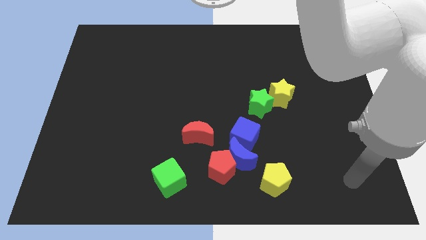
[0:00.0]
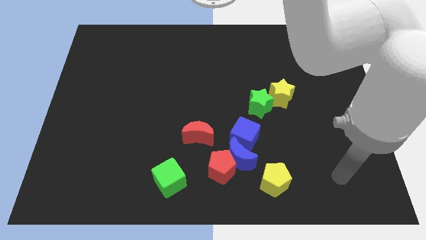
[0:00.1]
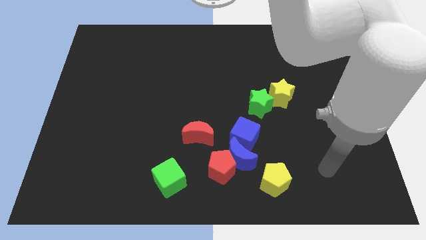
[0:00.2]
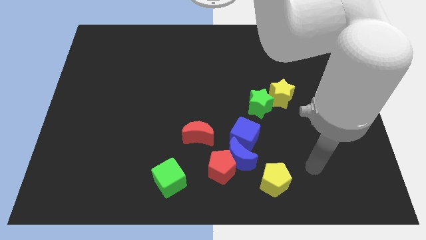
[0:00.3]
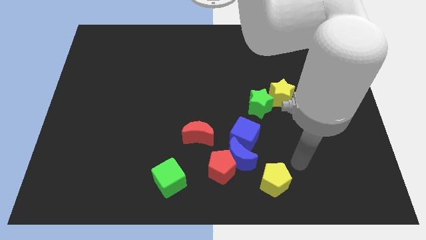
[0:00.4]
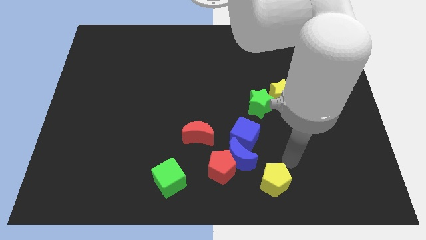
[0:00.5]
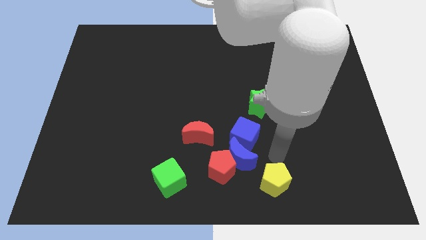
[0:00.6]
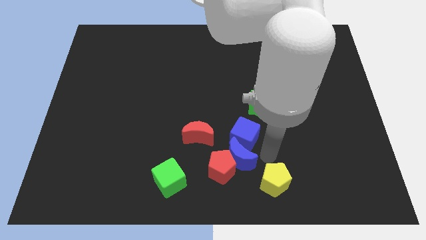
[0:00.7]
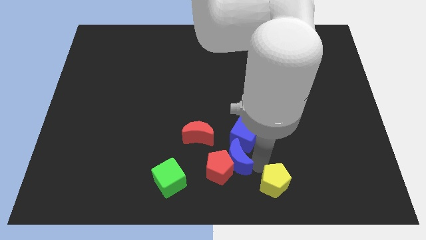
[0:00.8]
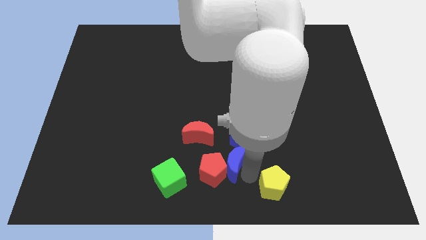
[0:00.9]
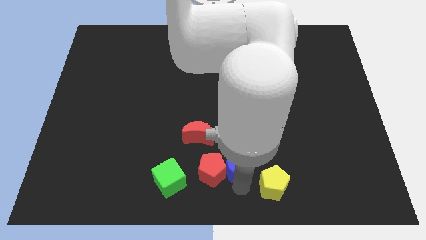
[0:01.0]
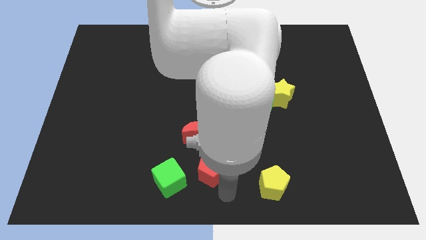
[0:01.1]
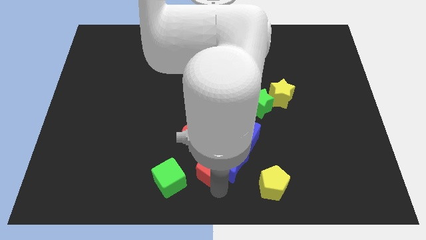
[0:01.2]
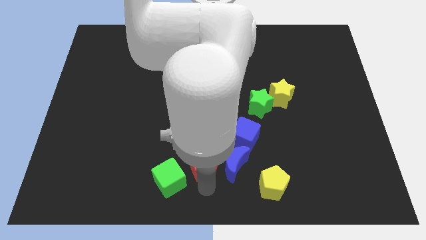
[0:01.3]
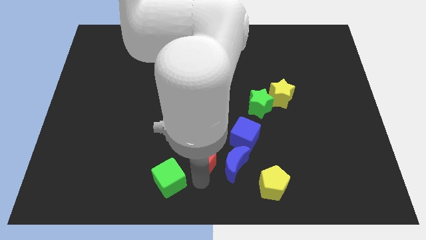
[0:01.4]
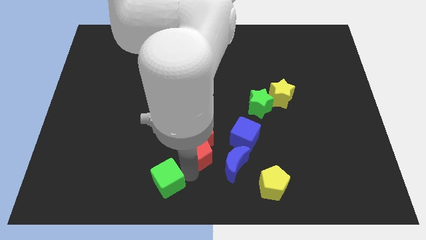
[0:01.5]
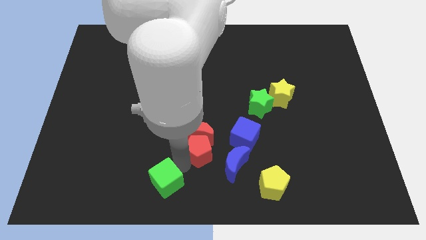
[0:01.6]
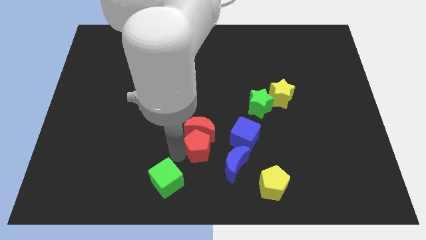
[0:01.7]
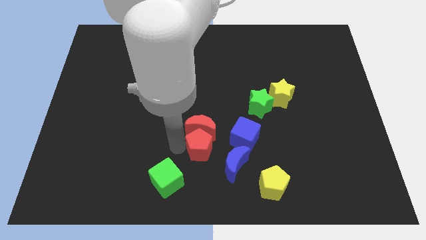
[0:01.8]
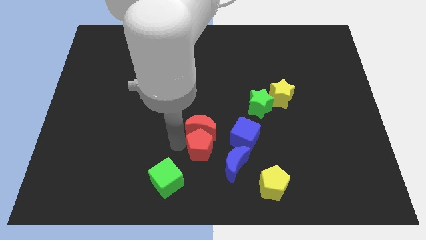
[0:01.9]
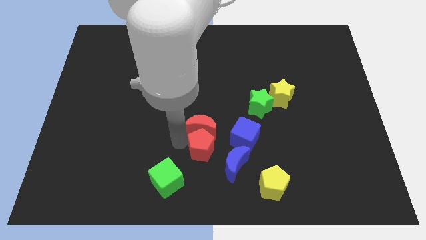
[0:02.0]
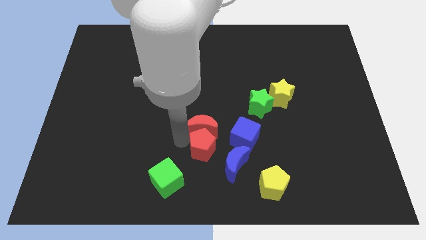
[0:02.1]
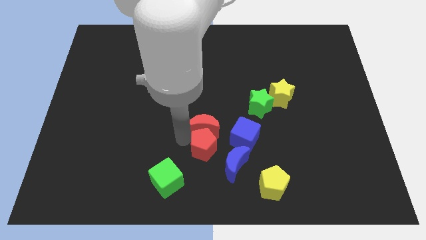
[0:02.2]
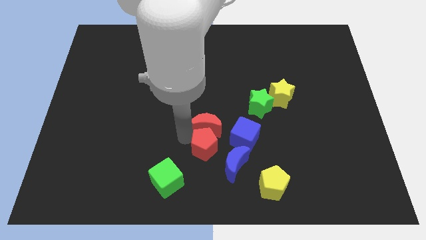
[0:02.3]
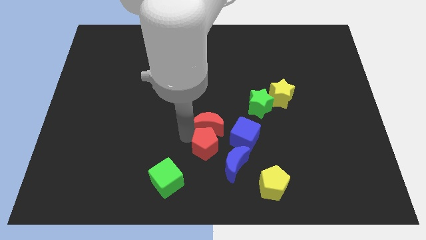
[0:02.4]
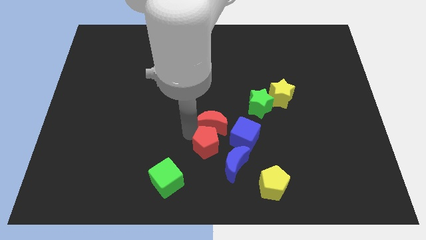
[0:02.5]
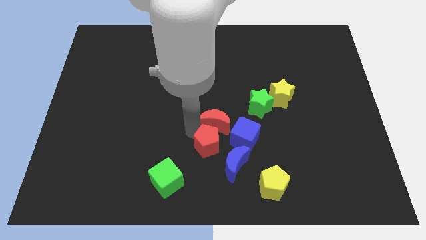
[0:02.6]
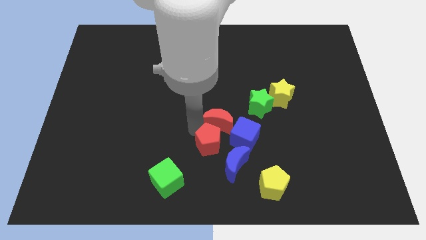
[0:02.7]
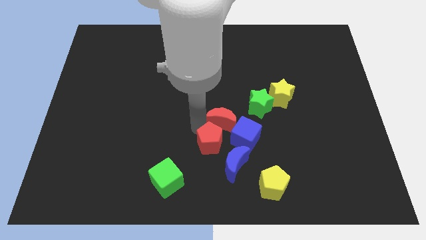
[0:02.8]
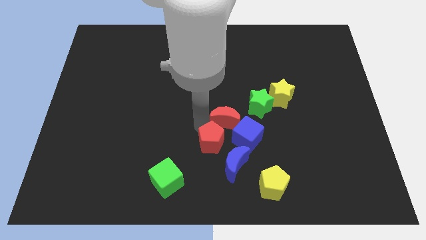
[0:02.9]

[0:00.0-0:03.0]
move the red moon up and to the right diagonally a bit

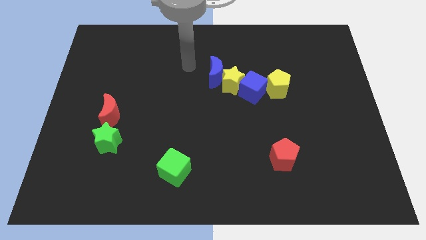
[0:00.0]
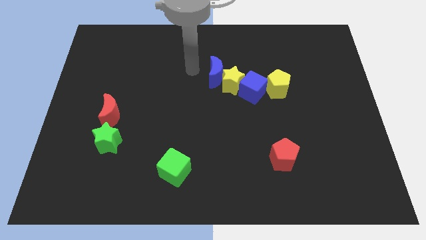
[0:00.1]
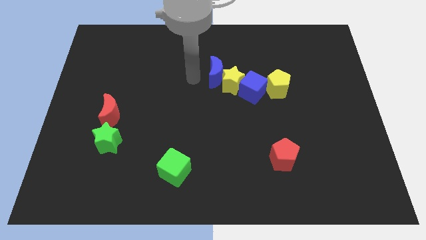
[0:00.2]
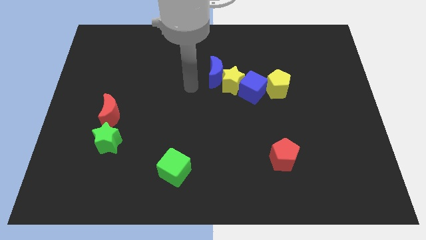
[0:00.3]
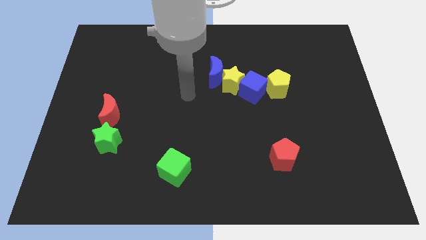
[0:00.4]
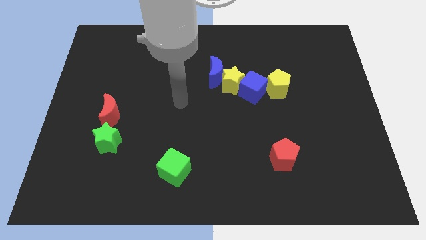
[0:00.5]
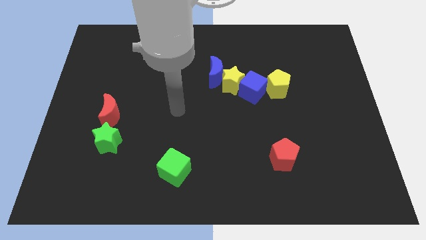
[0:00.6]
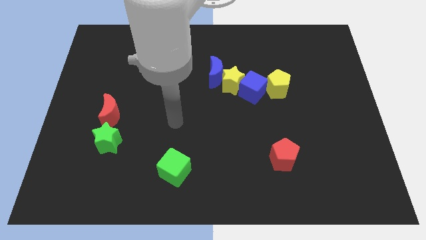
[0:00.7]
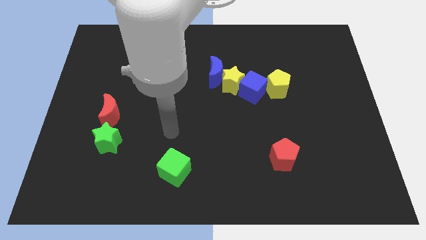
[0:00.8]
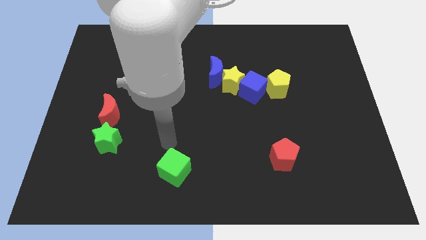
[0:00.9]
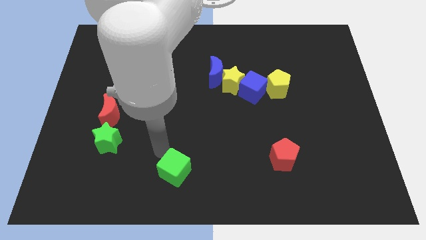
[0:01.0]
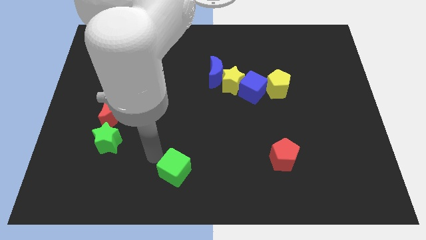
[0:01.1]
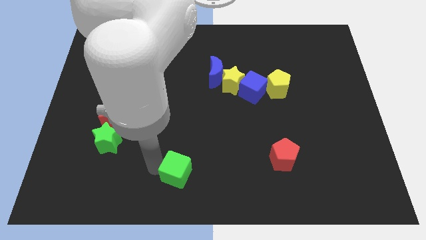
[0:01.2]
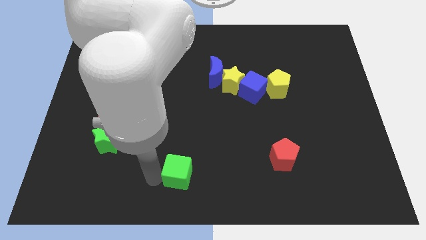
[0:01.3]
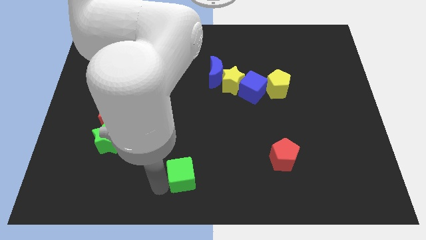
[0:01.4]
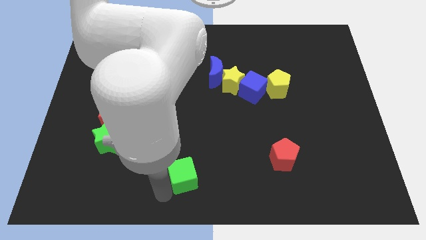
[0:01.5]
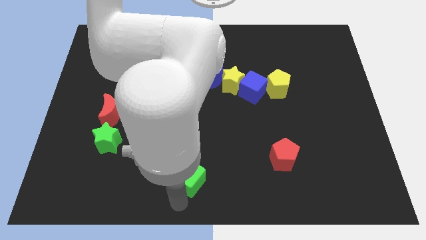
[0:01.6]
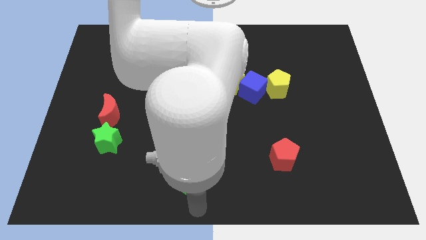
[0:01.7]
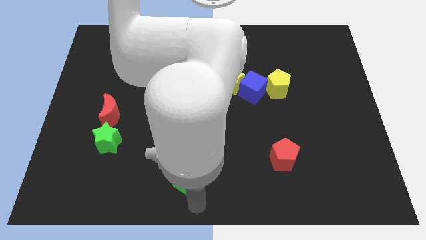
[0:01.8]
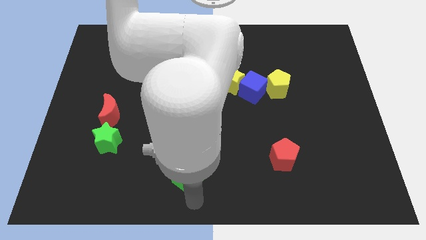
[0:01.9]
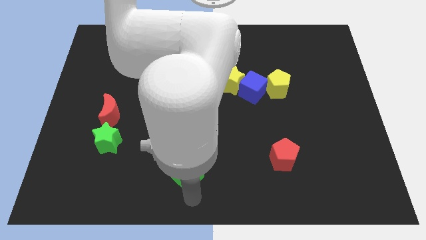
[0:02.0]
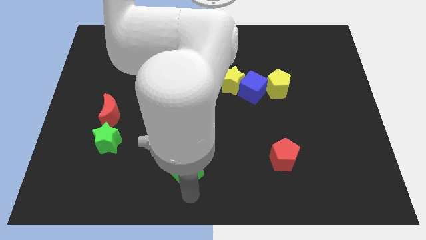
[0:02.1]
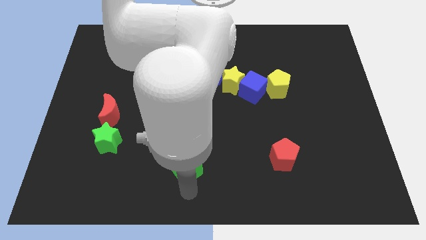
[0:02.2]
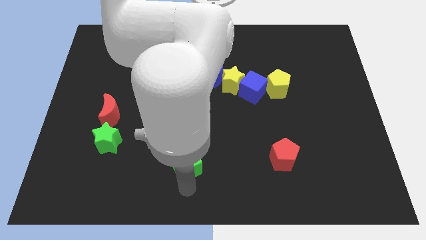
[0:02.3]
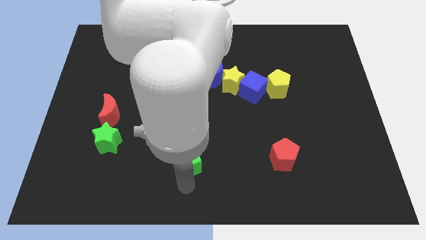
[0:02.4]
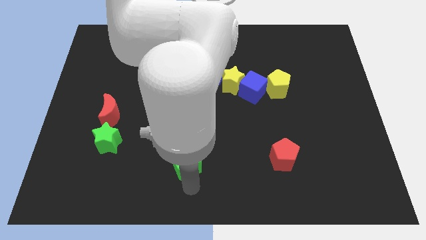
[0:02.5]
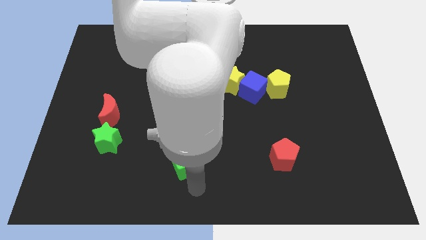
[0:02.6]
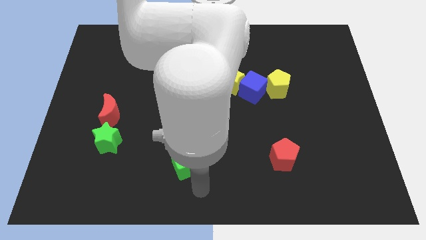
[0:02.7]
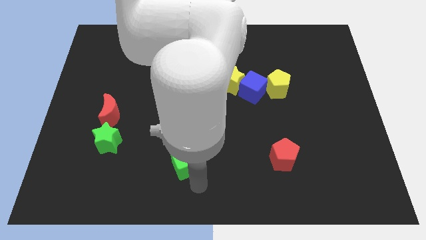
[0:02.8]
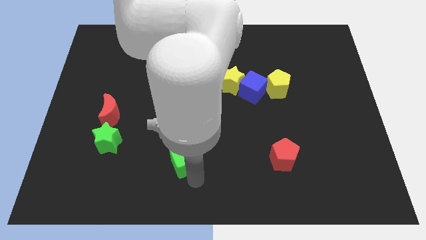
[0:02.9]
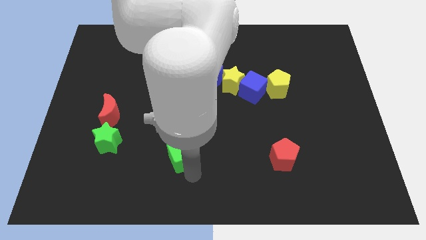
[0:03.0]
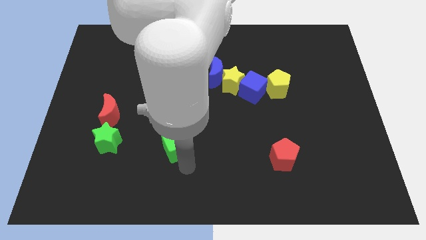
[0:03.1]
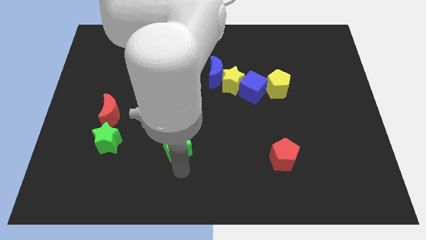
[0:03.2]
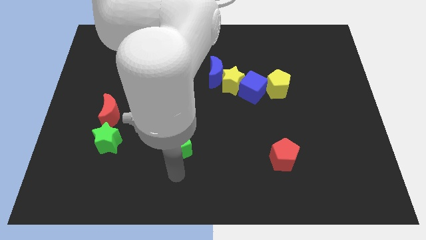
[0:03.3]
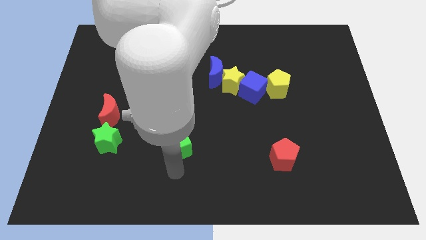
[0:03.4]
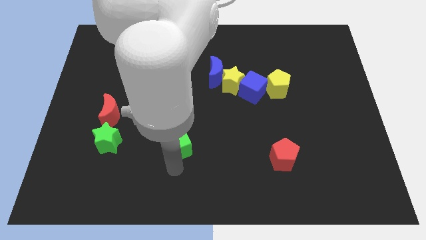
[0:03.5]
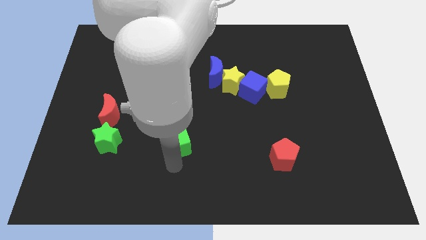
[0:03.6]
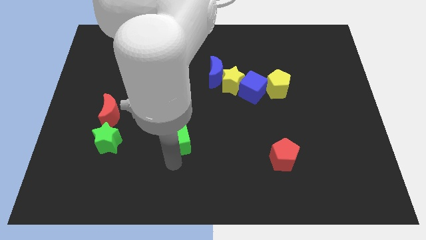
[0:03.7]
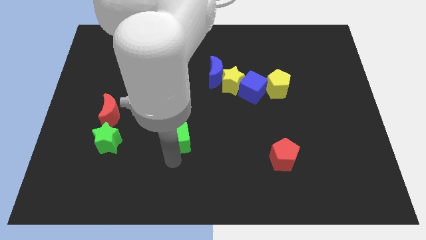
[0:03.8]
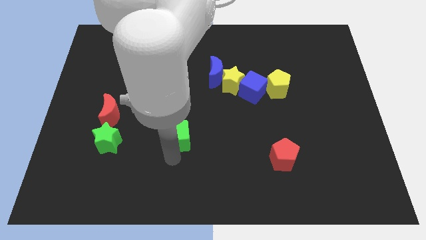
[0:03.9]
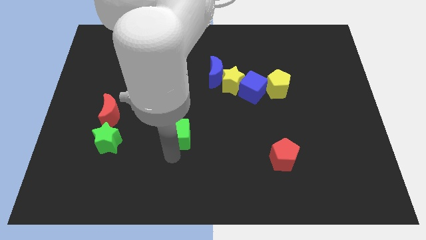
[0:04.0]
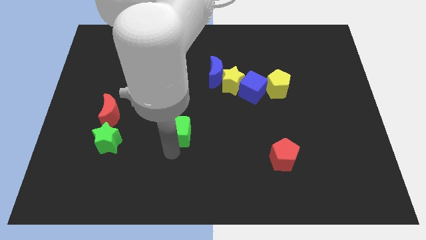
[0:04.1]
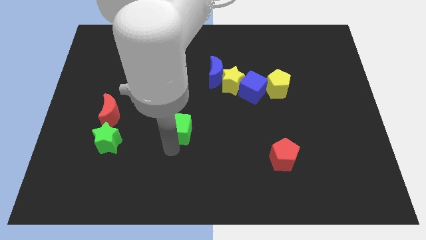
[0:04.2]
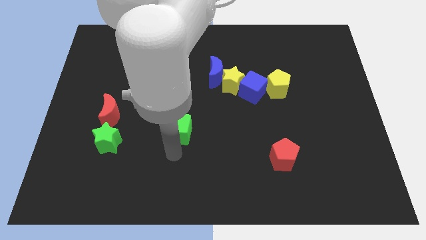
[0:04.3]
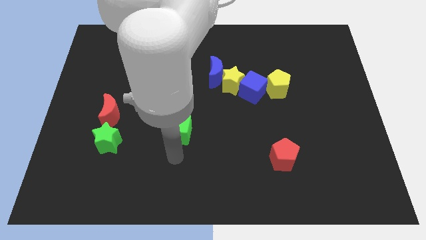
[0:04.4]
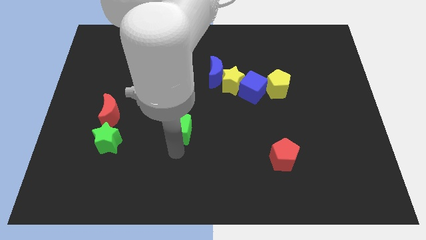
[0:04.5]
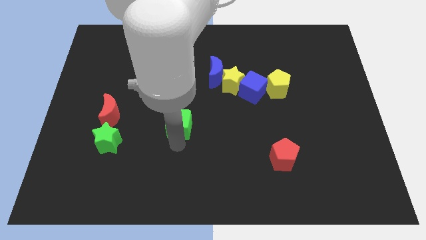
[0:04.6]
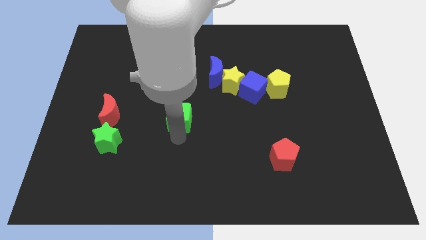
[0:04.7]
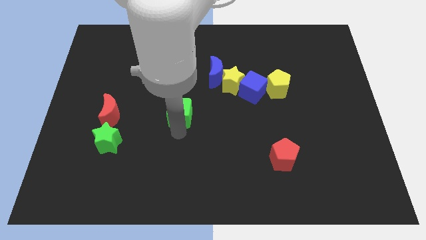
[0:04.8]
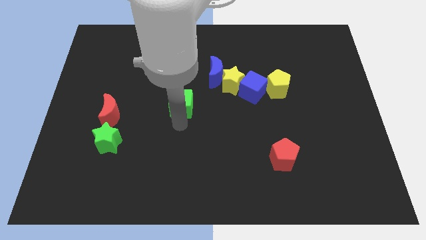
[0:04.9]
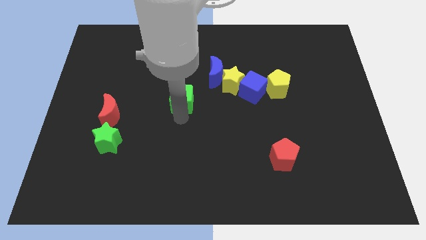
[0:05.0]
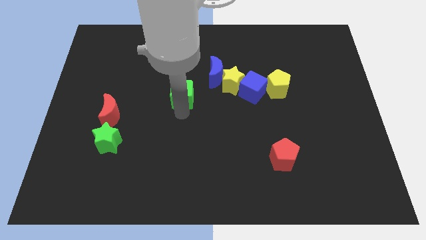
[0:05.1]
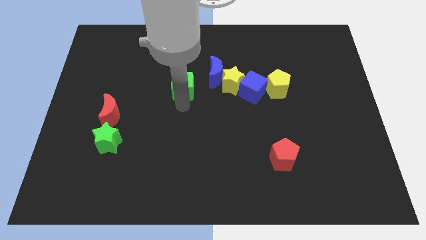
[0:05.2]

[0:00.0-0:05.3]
move the green cube up
